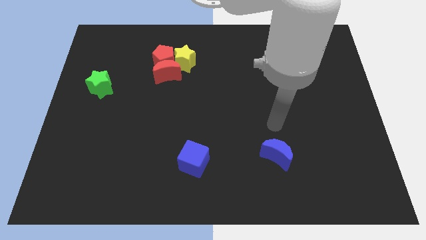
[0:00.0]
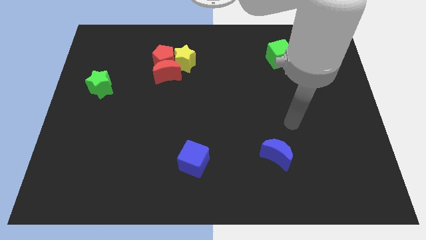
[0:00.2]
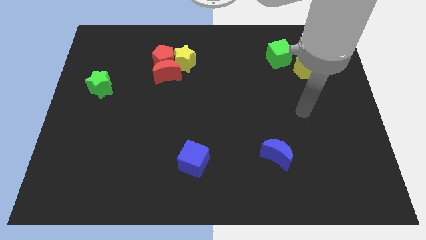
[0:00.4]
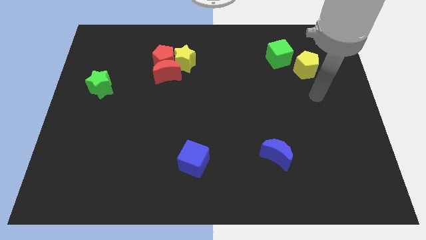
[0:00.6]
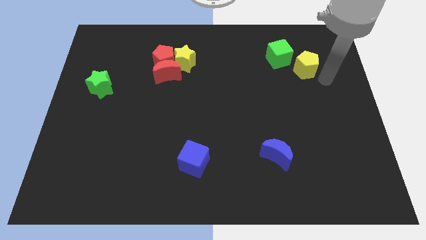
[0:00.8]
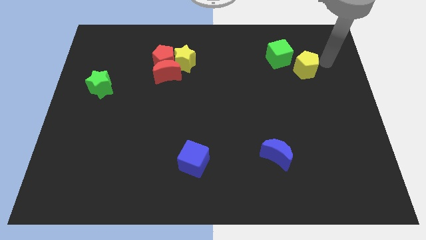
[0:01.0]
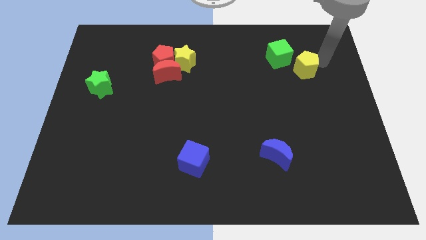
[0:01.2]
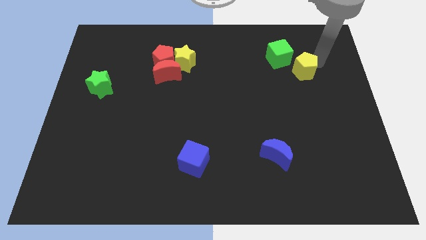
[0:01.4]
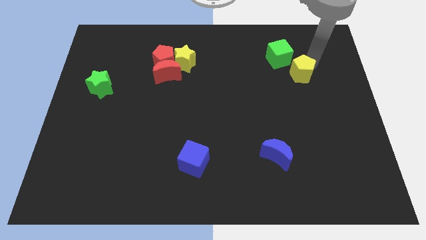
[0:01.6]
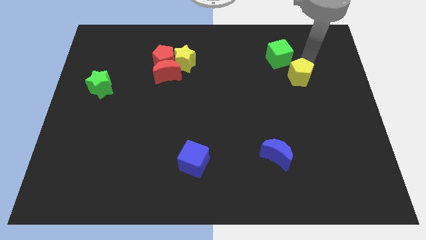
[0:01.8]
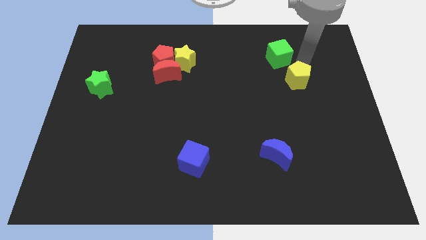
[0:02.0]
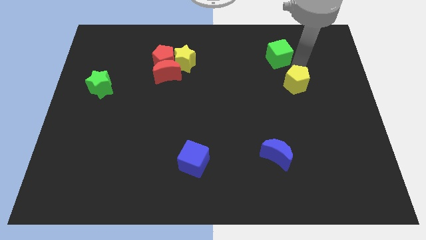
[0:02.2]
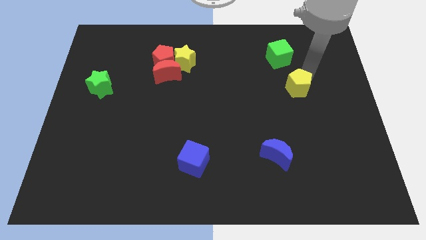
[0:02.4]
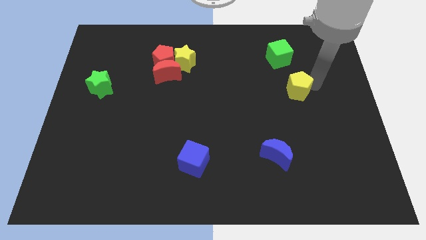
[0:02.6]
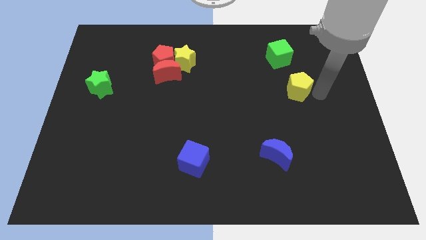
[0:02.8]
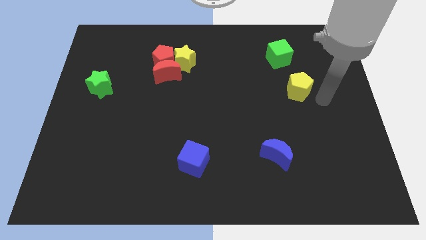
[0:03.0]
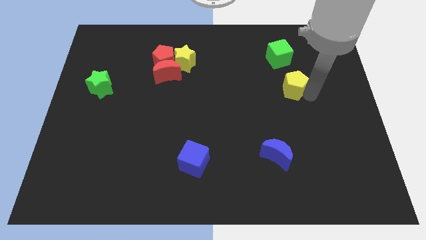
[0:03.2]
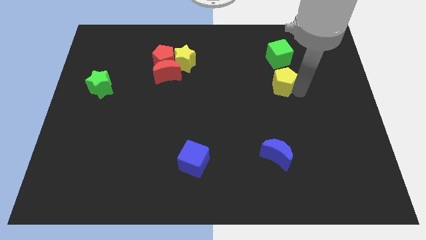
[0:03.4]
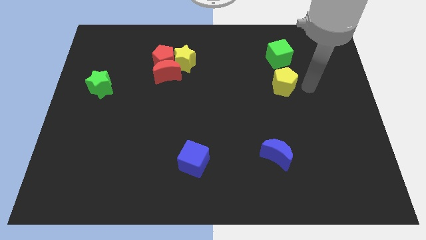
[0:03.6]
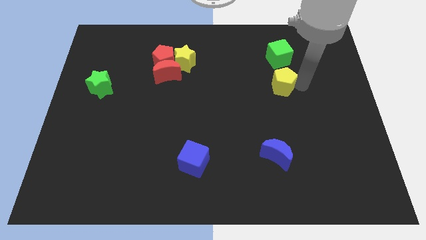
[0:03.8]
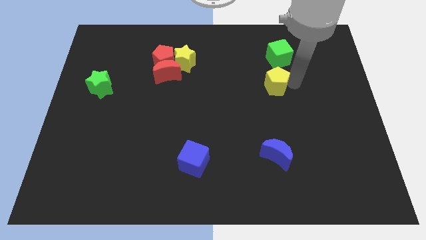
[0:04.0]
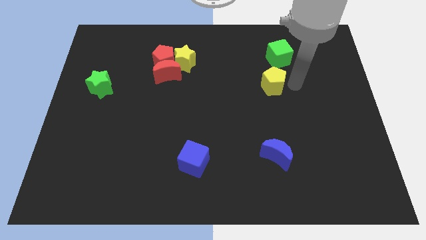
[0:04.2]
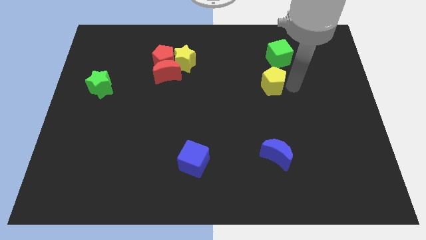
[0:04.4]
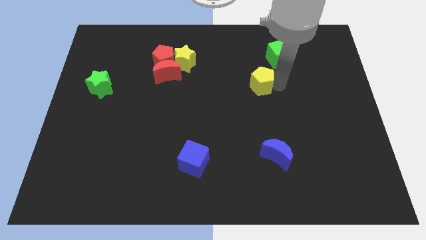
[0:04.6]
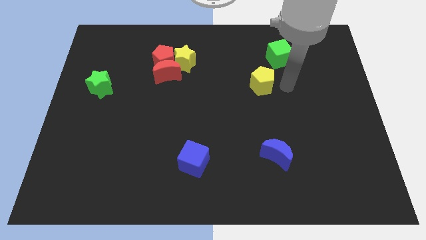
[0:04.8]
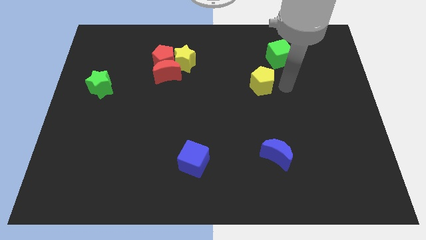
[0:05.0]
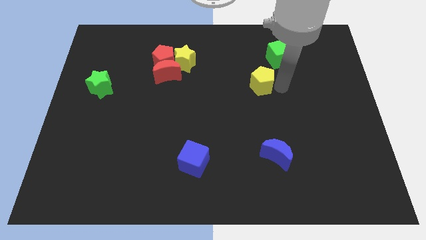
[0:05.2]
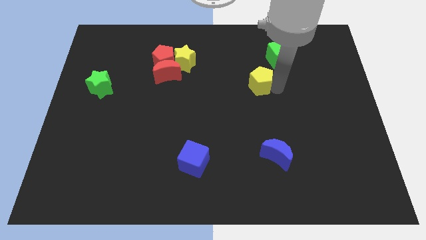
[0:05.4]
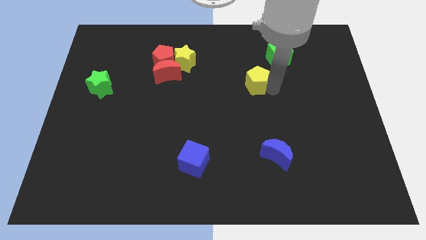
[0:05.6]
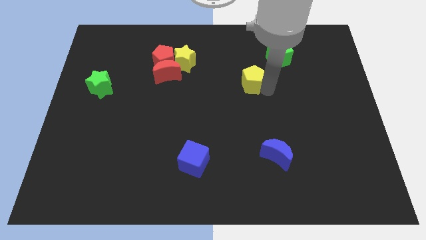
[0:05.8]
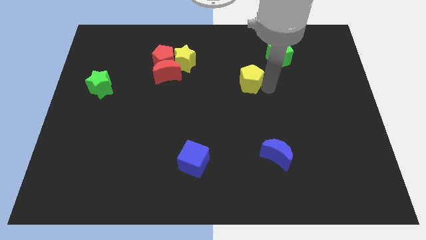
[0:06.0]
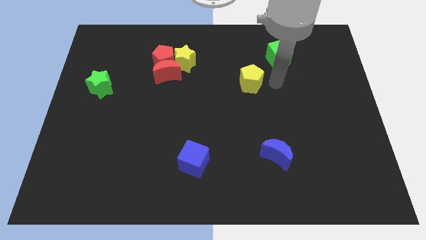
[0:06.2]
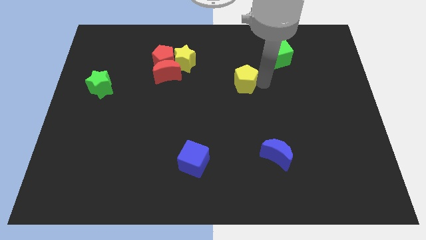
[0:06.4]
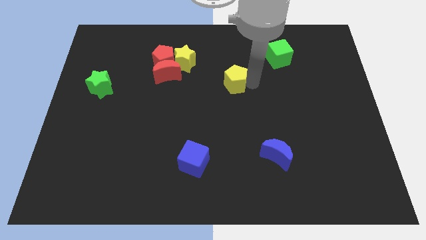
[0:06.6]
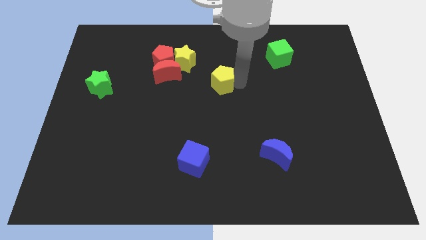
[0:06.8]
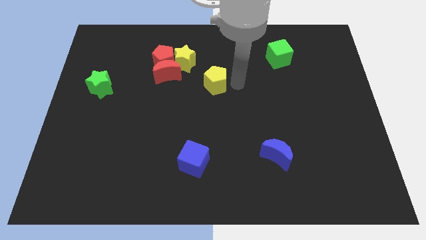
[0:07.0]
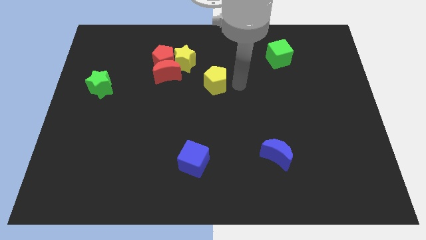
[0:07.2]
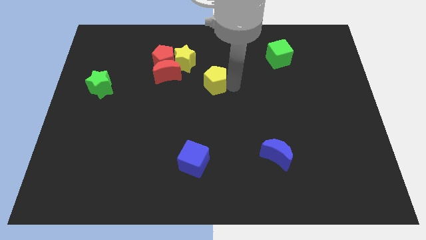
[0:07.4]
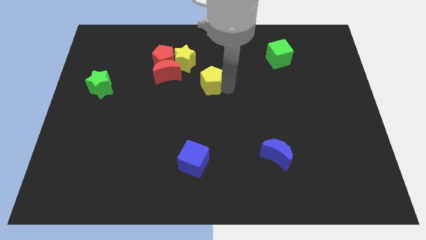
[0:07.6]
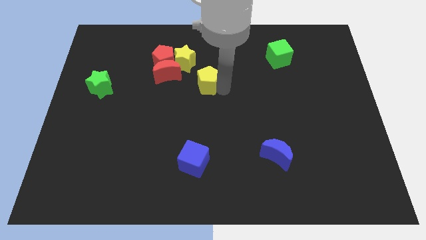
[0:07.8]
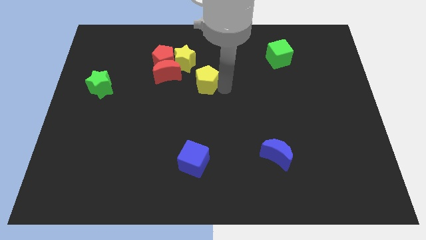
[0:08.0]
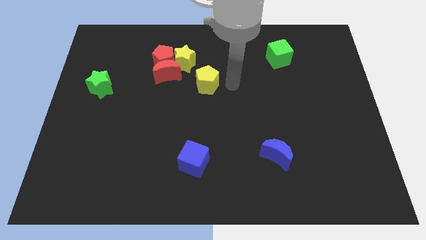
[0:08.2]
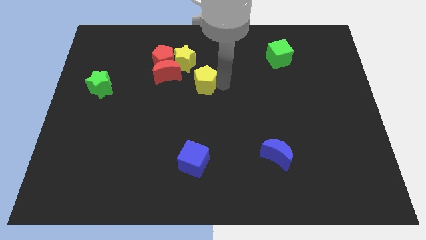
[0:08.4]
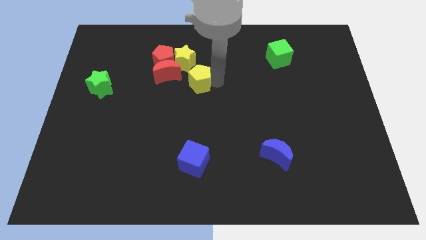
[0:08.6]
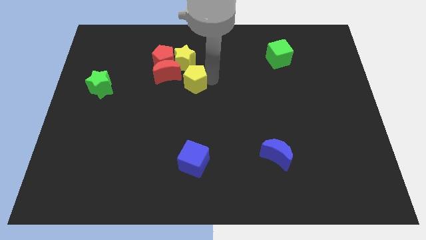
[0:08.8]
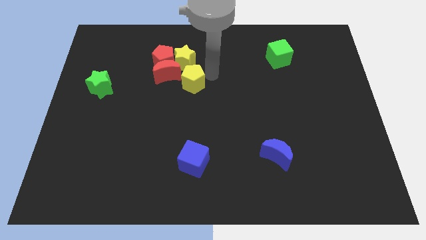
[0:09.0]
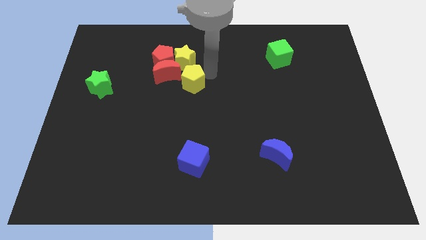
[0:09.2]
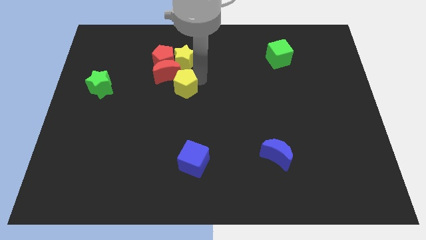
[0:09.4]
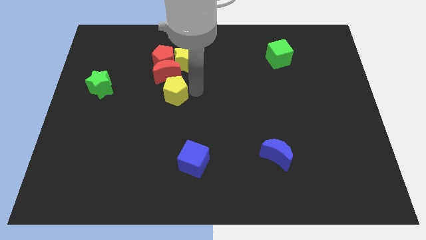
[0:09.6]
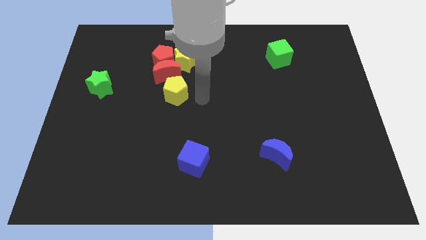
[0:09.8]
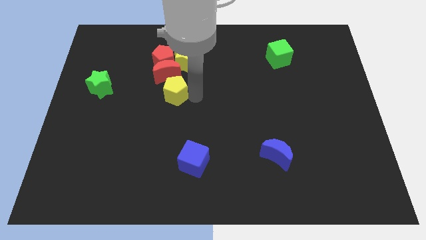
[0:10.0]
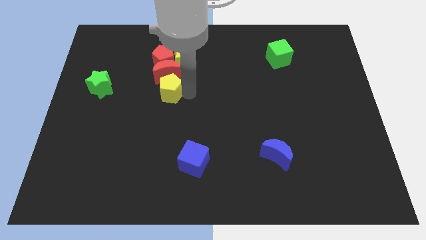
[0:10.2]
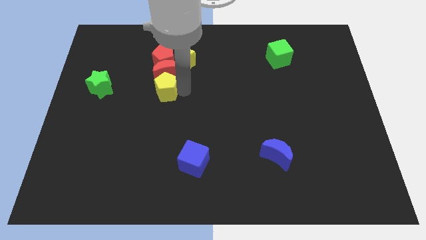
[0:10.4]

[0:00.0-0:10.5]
push the yellow pentagon just right of the green star

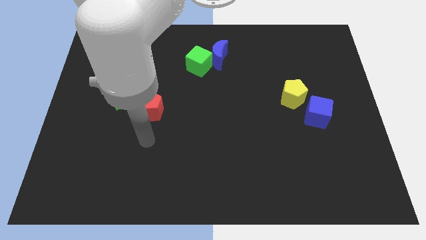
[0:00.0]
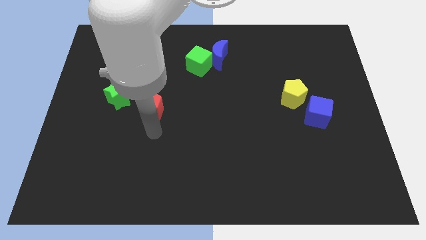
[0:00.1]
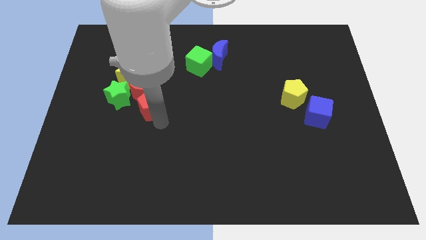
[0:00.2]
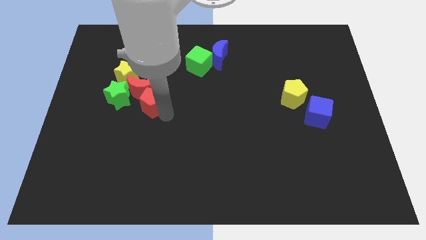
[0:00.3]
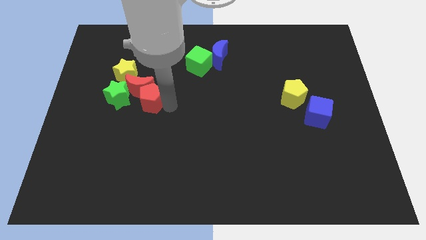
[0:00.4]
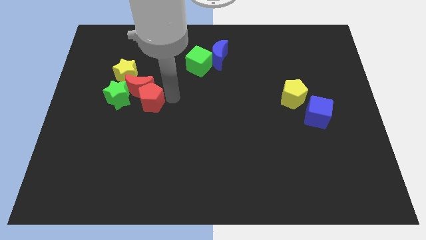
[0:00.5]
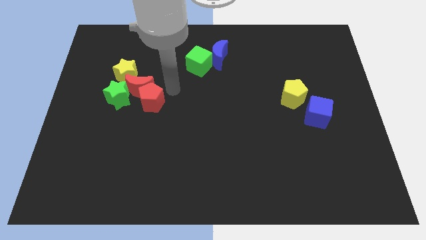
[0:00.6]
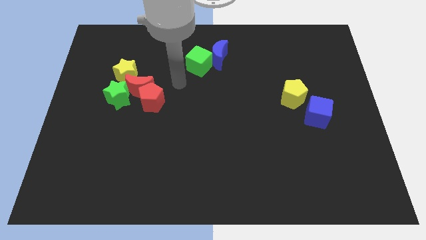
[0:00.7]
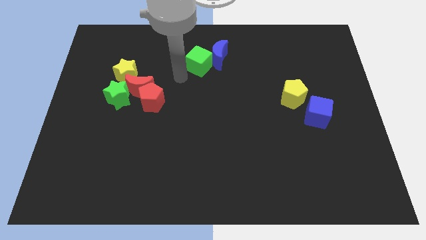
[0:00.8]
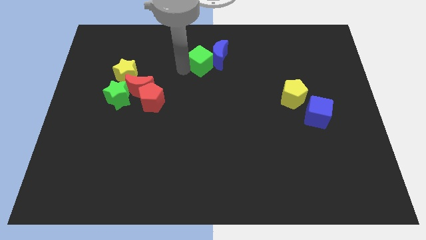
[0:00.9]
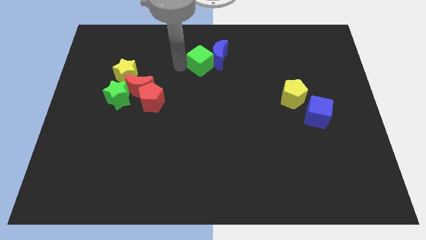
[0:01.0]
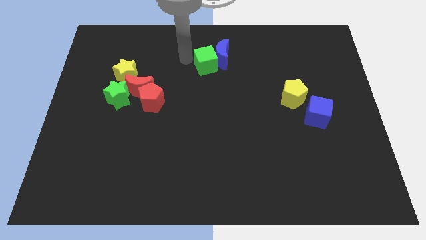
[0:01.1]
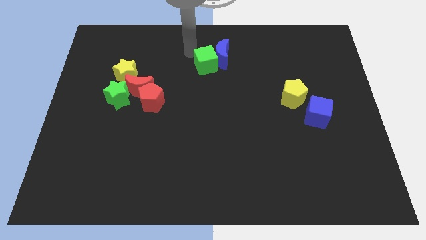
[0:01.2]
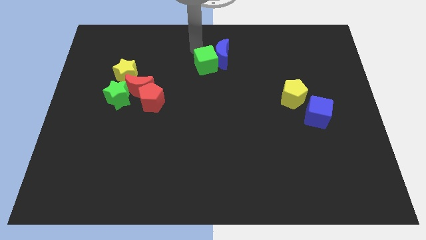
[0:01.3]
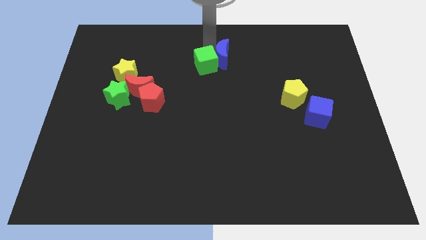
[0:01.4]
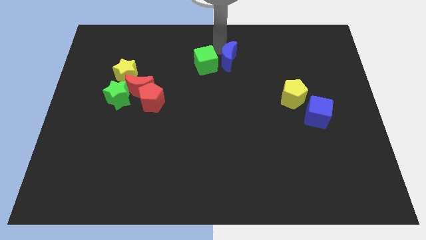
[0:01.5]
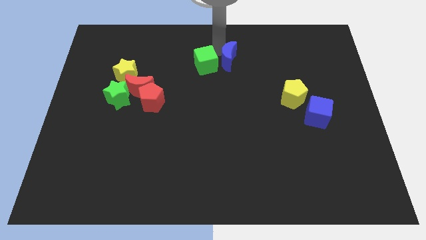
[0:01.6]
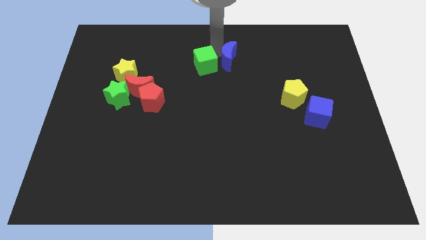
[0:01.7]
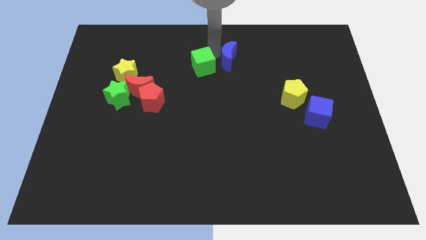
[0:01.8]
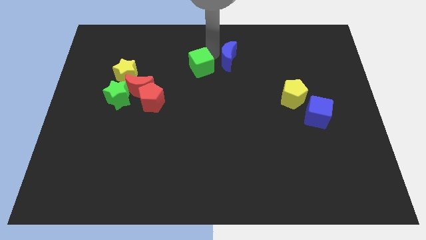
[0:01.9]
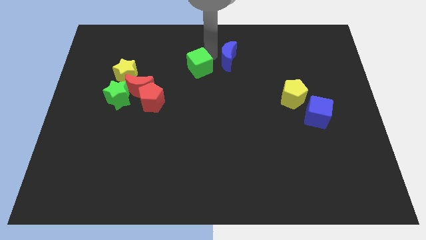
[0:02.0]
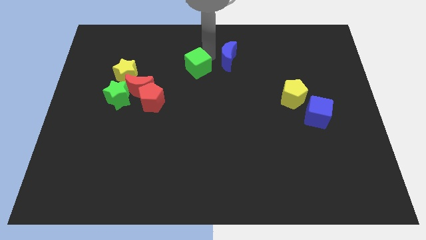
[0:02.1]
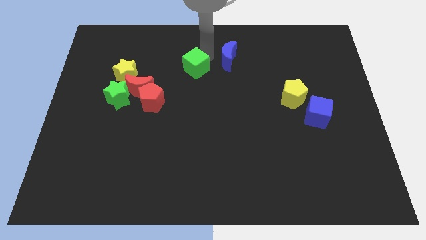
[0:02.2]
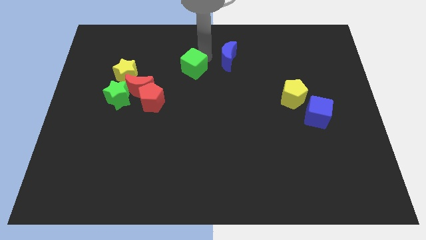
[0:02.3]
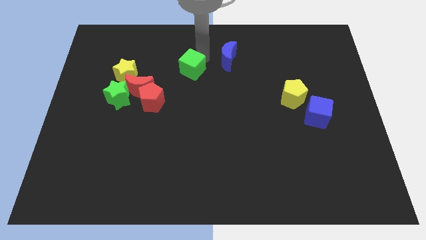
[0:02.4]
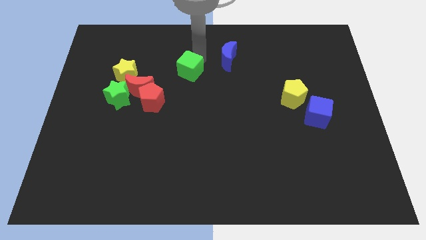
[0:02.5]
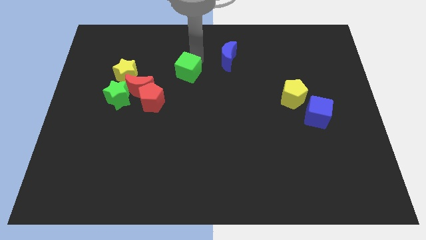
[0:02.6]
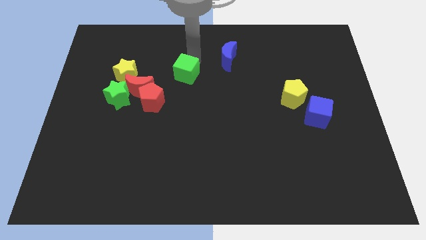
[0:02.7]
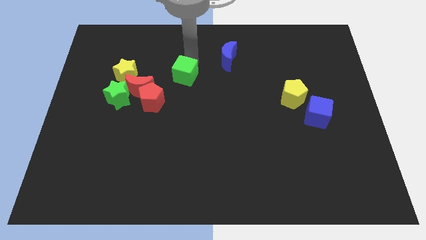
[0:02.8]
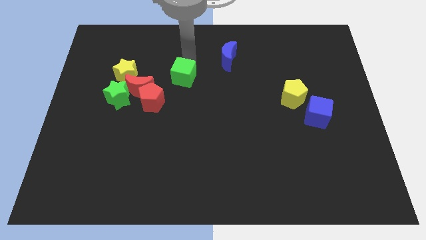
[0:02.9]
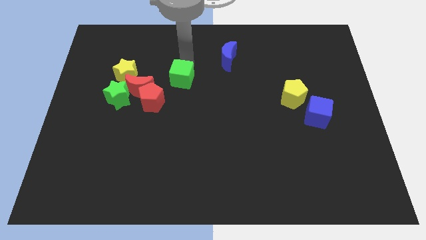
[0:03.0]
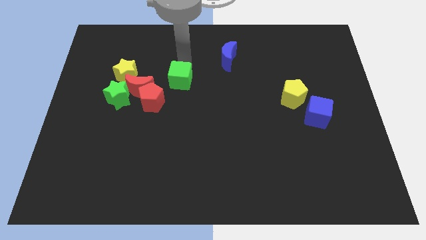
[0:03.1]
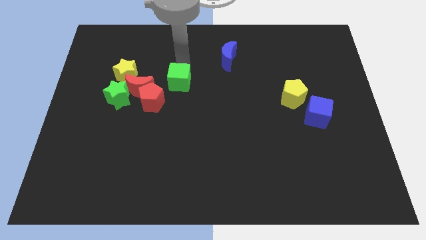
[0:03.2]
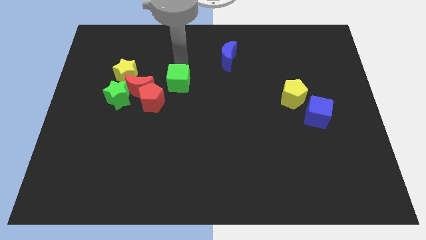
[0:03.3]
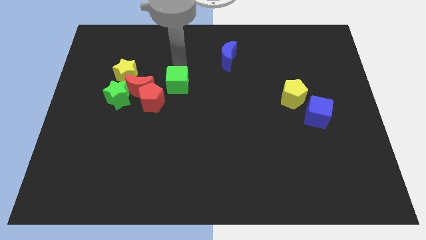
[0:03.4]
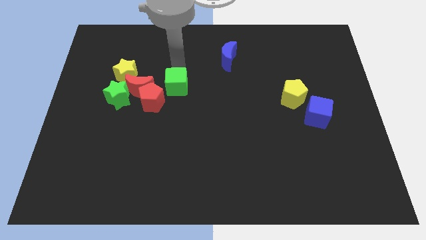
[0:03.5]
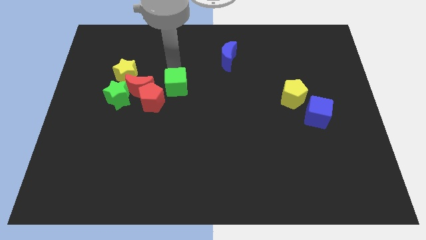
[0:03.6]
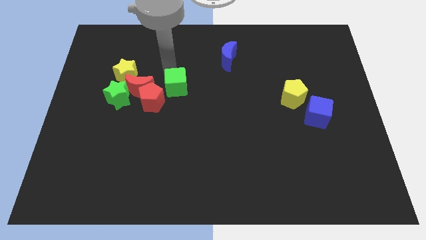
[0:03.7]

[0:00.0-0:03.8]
move the green cube right of the red pentagon
